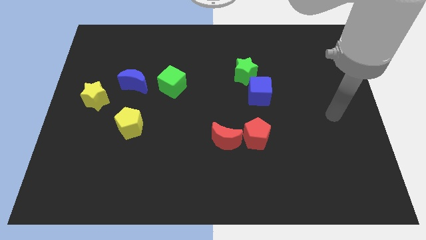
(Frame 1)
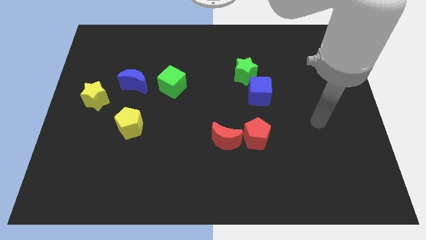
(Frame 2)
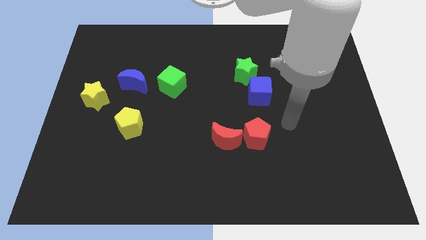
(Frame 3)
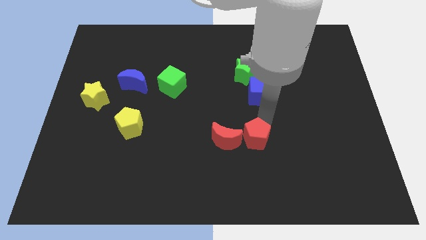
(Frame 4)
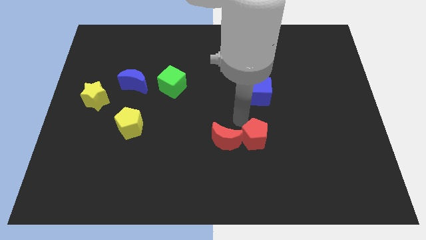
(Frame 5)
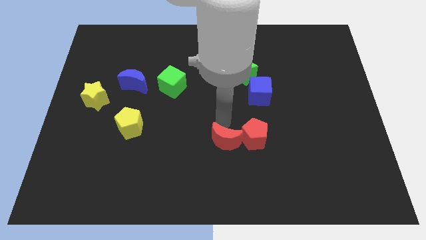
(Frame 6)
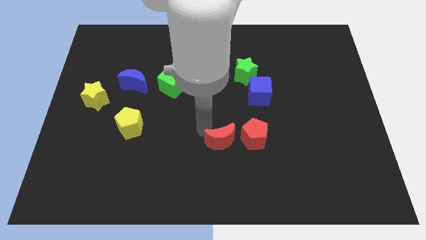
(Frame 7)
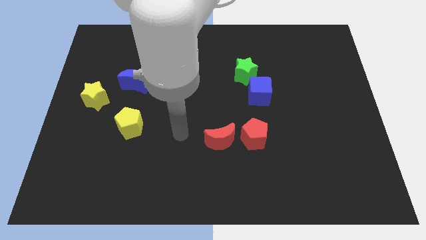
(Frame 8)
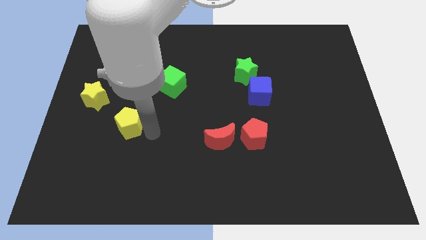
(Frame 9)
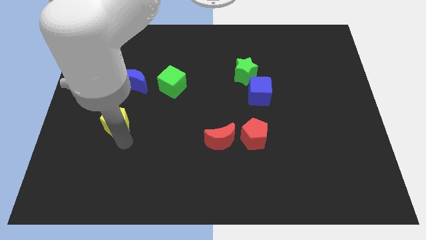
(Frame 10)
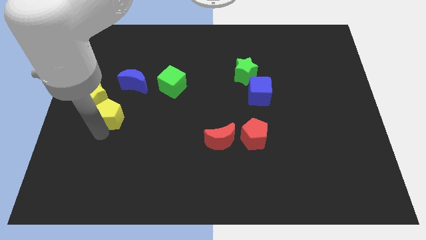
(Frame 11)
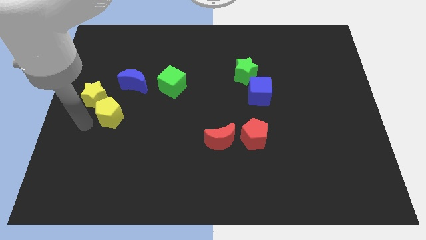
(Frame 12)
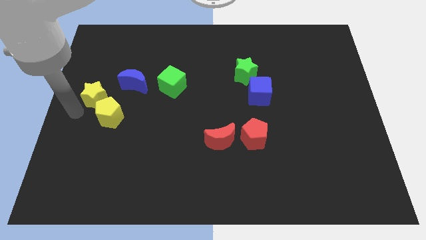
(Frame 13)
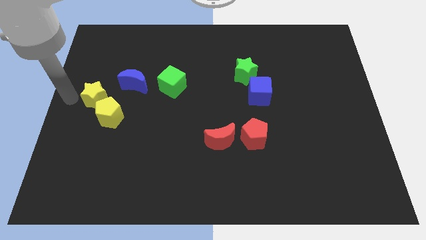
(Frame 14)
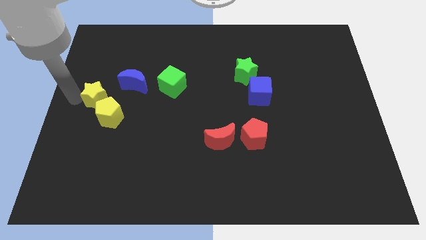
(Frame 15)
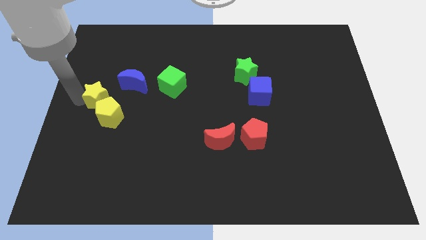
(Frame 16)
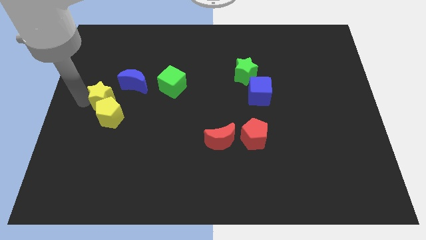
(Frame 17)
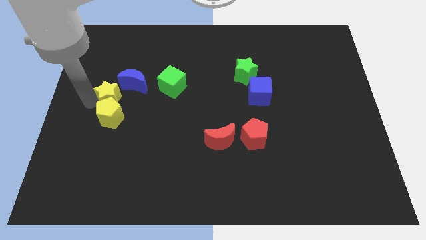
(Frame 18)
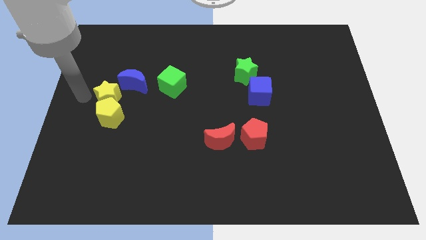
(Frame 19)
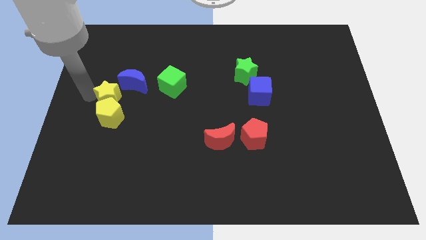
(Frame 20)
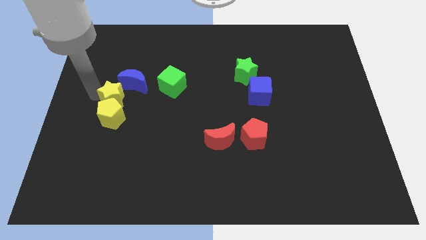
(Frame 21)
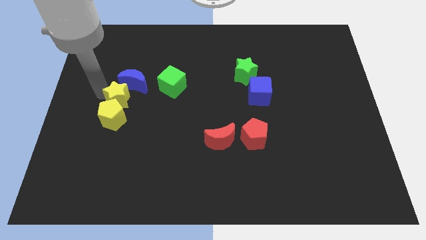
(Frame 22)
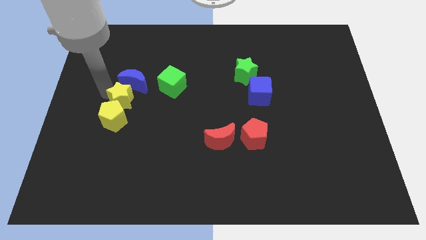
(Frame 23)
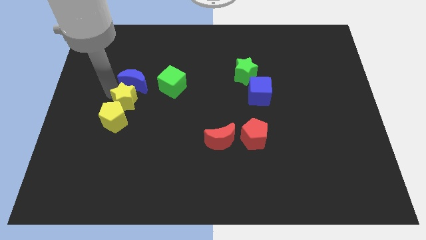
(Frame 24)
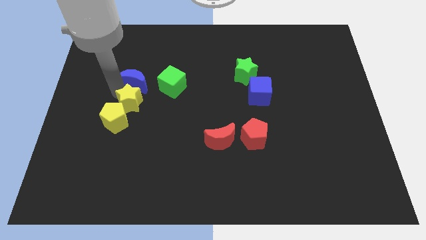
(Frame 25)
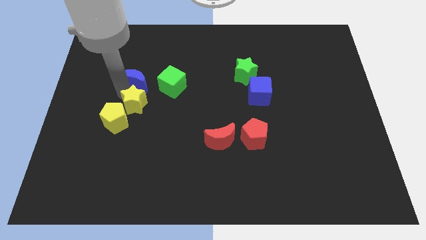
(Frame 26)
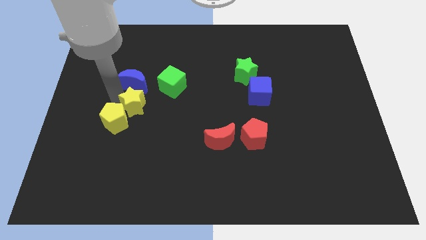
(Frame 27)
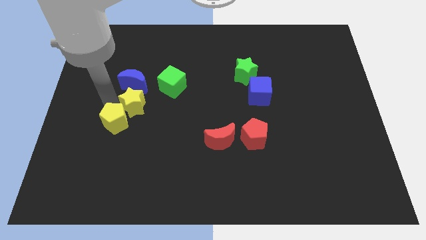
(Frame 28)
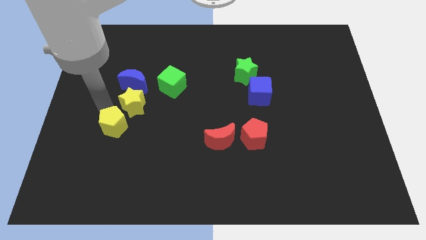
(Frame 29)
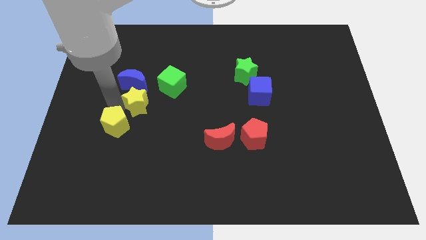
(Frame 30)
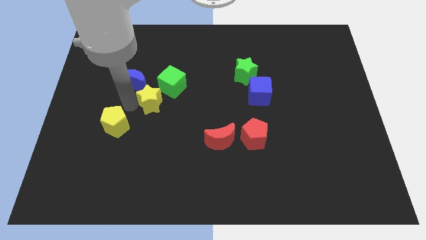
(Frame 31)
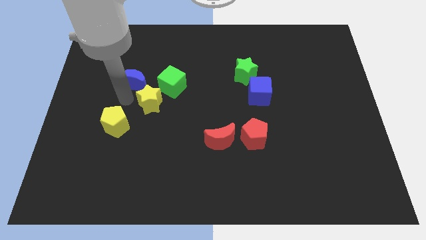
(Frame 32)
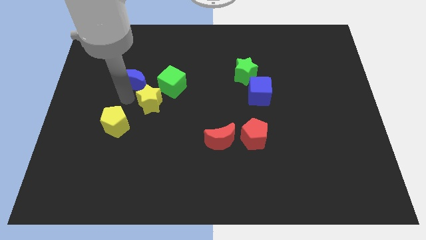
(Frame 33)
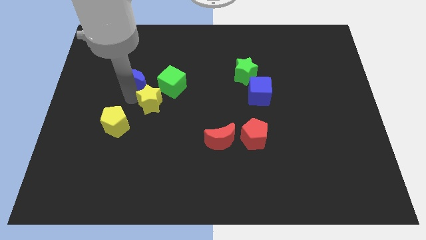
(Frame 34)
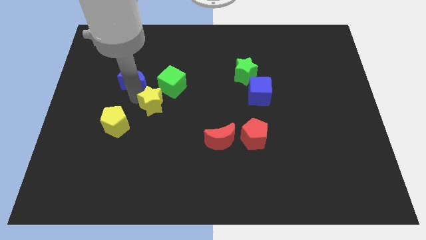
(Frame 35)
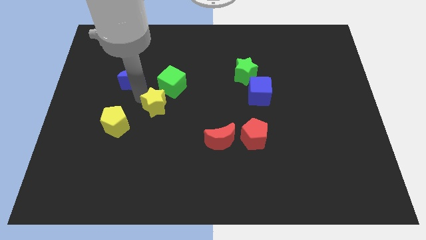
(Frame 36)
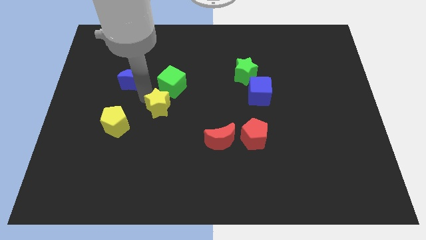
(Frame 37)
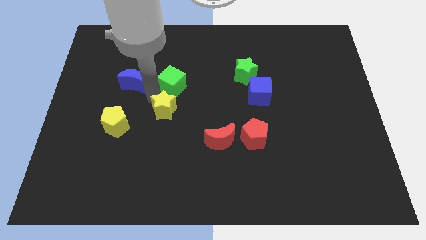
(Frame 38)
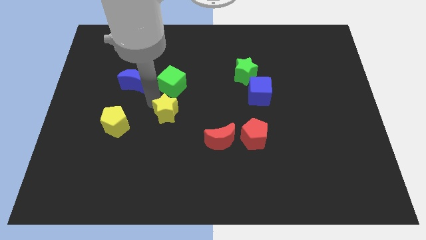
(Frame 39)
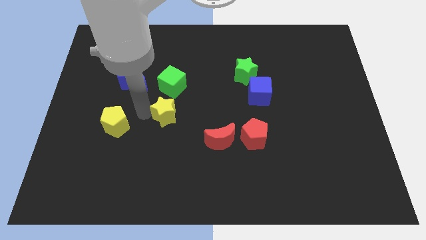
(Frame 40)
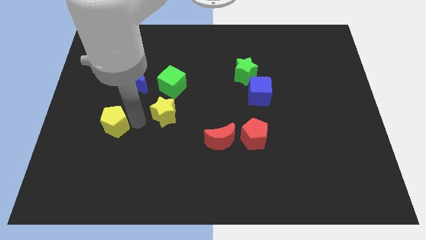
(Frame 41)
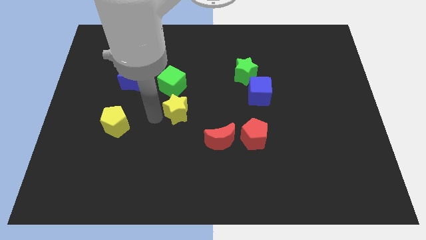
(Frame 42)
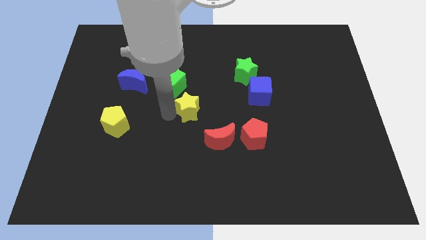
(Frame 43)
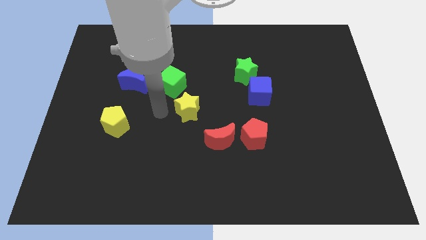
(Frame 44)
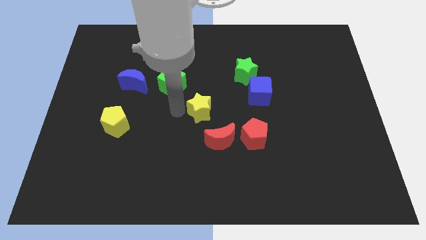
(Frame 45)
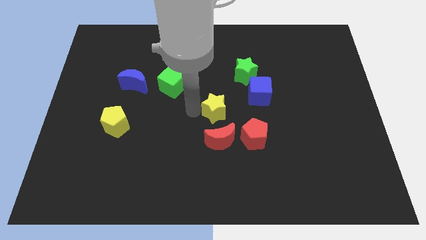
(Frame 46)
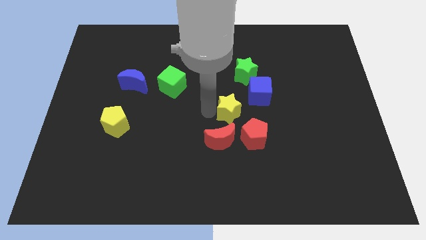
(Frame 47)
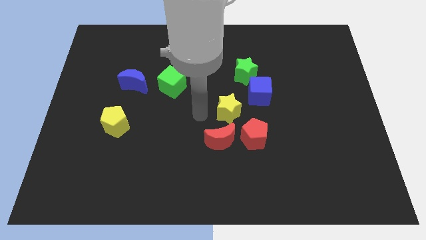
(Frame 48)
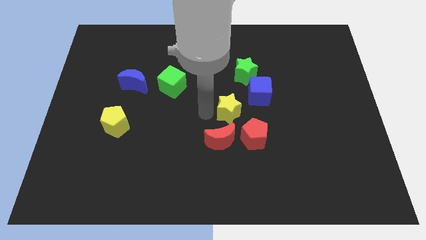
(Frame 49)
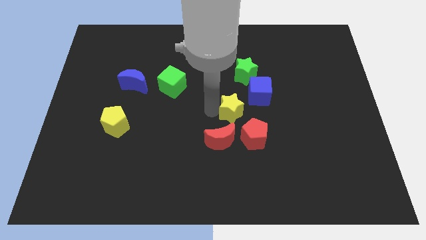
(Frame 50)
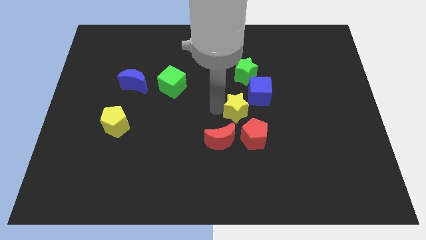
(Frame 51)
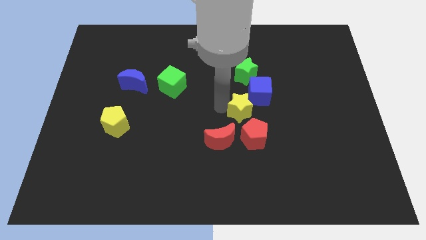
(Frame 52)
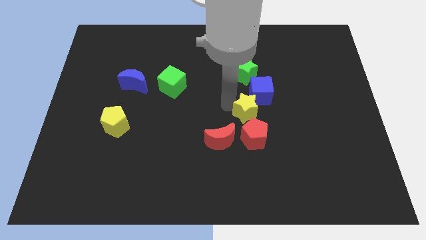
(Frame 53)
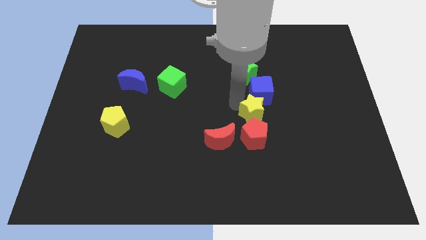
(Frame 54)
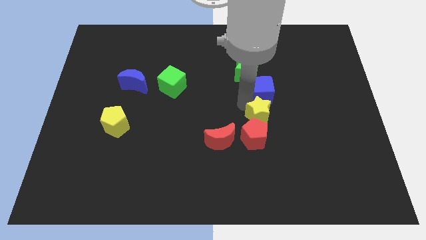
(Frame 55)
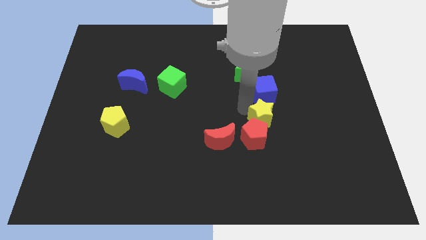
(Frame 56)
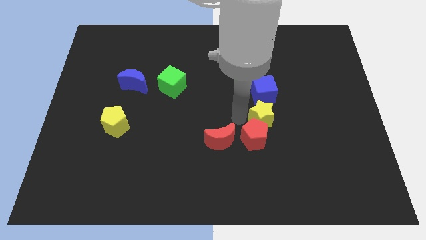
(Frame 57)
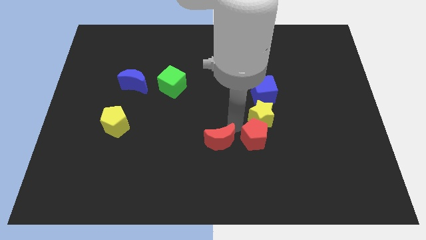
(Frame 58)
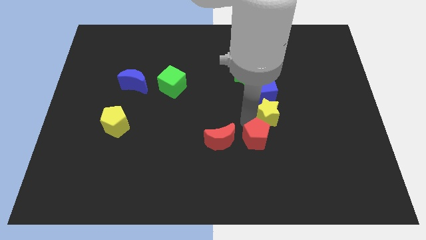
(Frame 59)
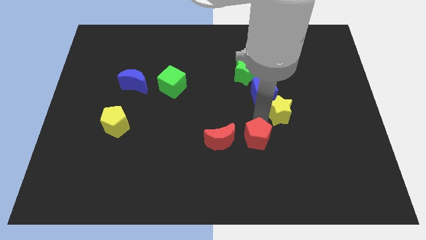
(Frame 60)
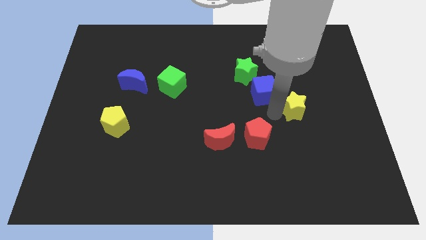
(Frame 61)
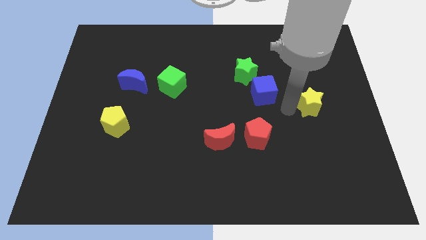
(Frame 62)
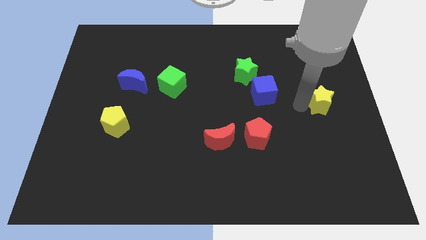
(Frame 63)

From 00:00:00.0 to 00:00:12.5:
push the yellow star to the right side of the board
